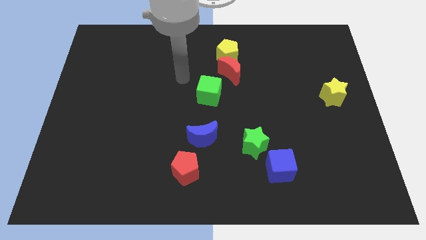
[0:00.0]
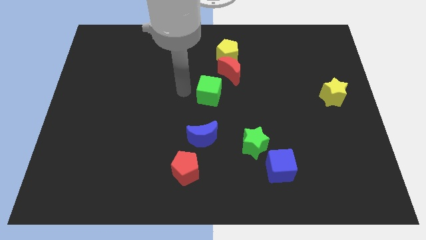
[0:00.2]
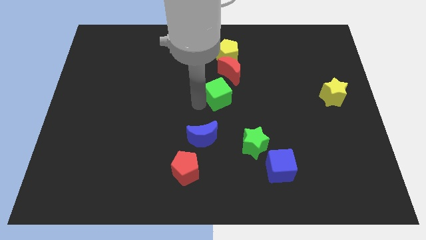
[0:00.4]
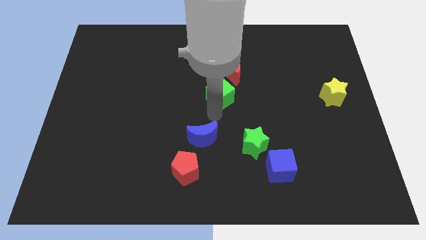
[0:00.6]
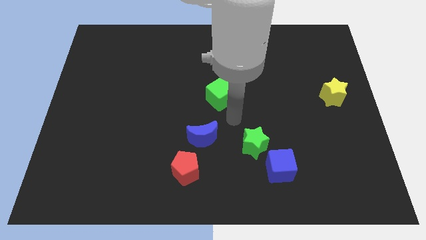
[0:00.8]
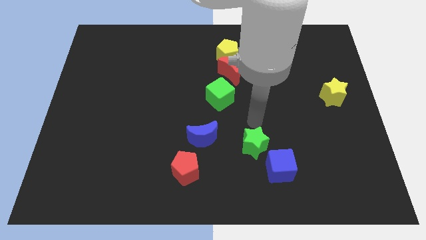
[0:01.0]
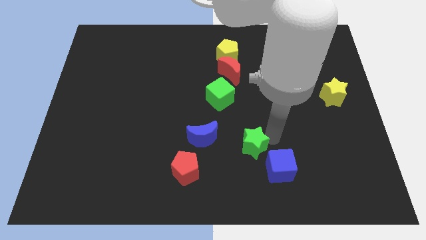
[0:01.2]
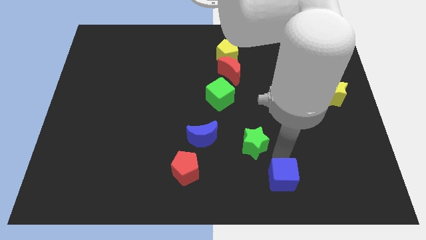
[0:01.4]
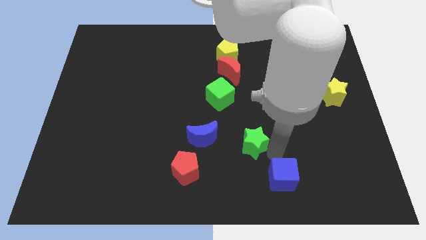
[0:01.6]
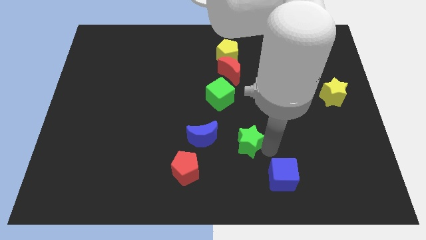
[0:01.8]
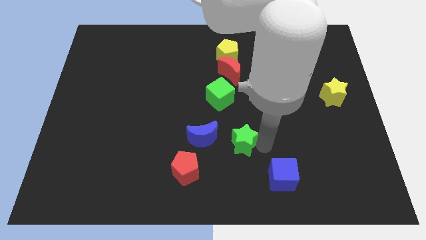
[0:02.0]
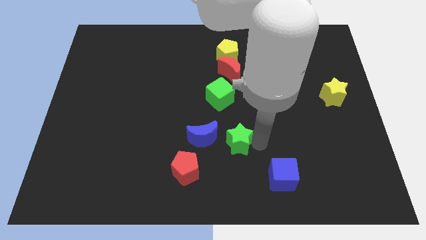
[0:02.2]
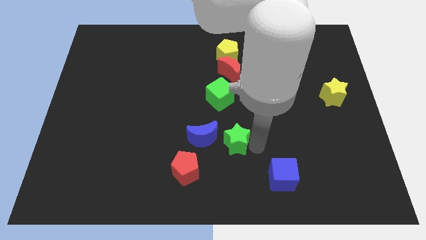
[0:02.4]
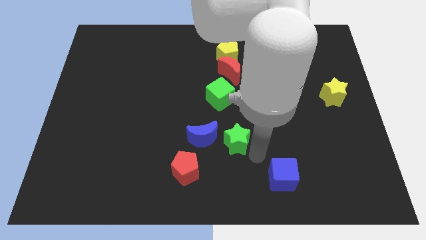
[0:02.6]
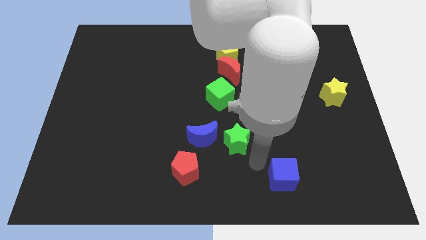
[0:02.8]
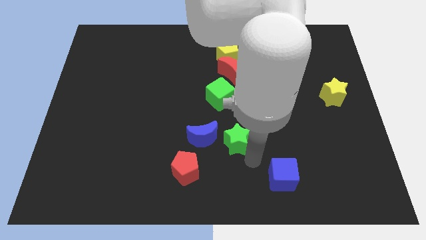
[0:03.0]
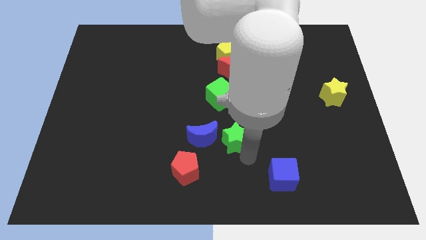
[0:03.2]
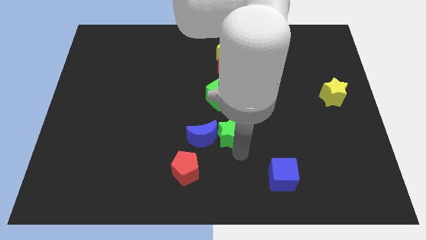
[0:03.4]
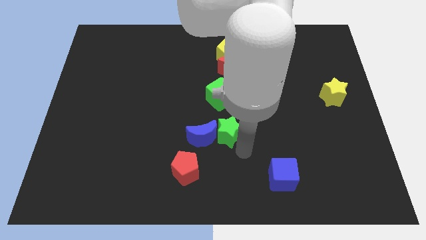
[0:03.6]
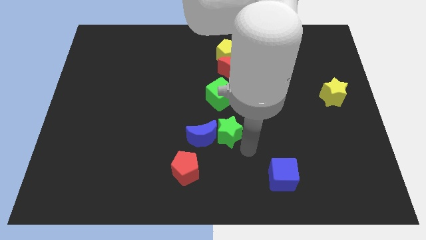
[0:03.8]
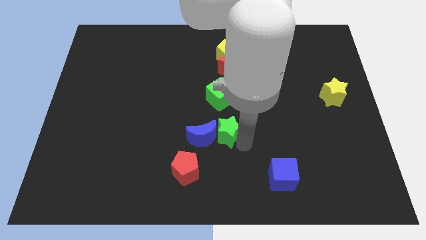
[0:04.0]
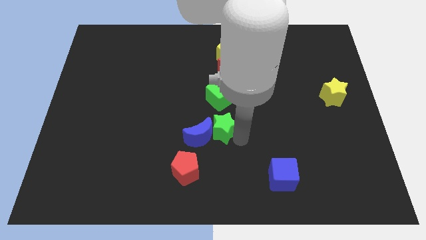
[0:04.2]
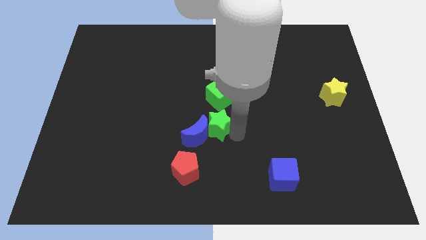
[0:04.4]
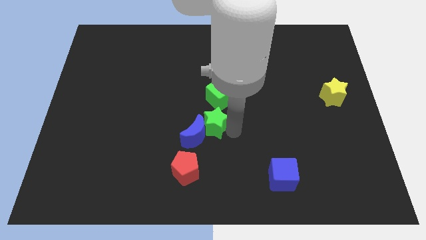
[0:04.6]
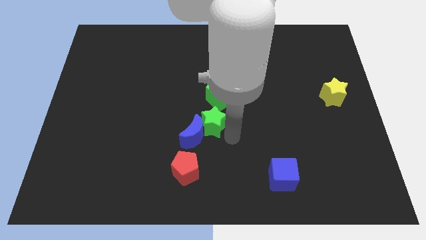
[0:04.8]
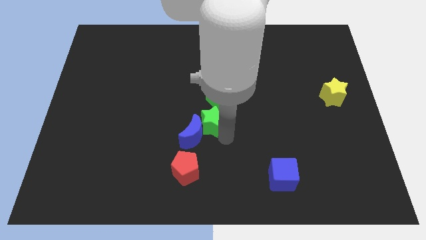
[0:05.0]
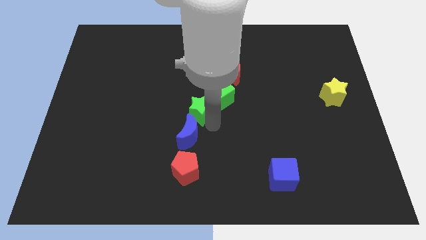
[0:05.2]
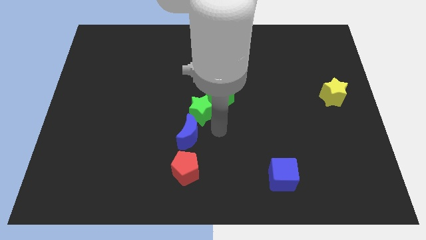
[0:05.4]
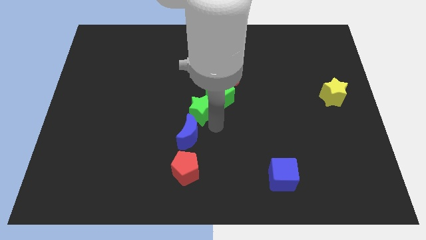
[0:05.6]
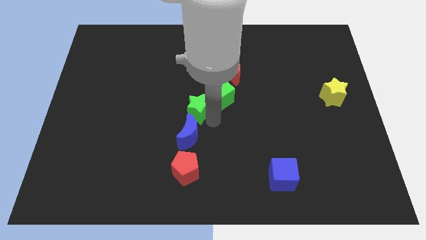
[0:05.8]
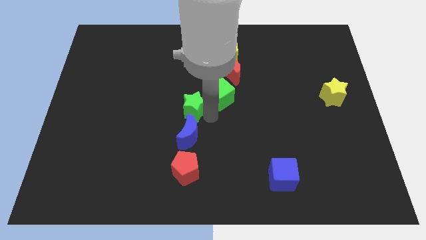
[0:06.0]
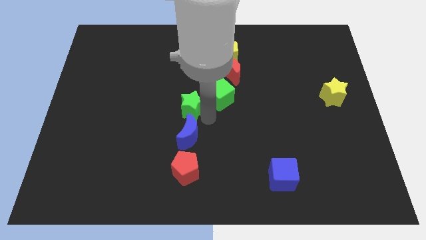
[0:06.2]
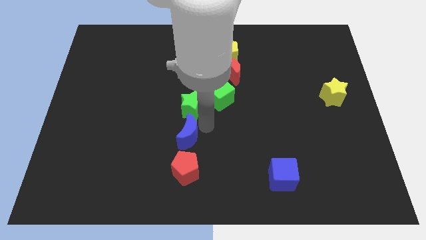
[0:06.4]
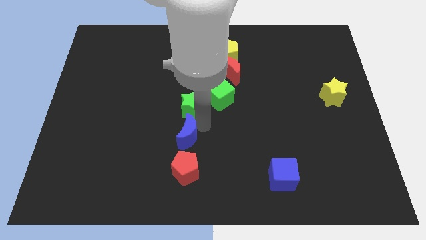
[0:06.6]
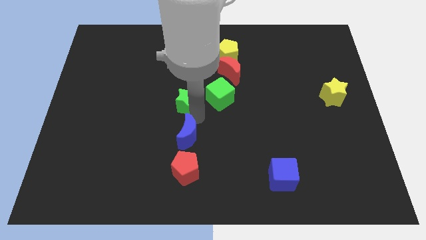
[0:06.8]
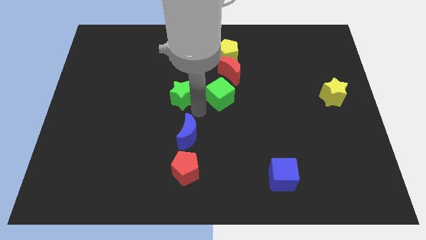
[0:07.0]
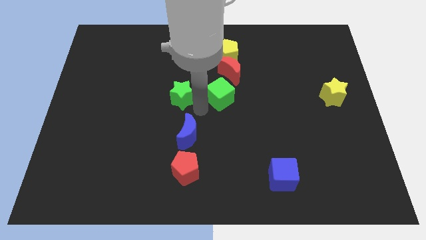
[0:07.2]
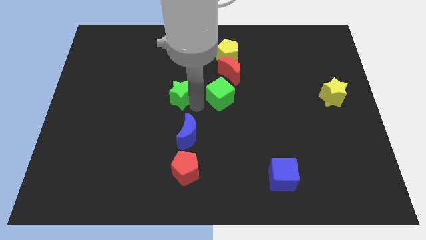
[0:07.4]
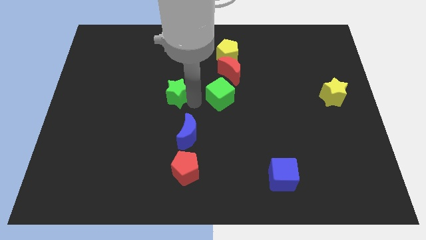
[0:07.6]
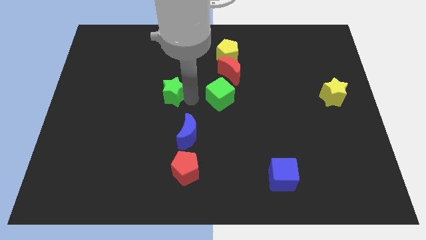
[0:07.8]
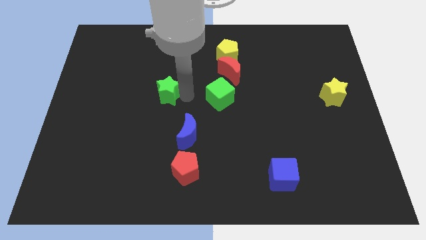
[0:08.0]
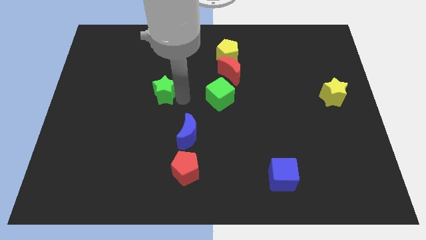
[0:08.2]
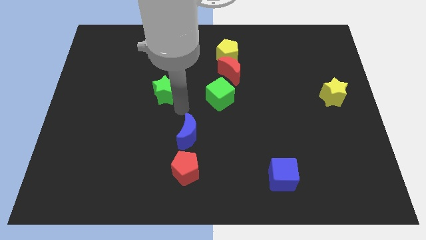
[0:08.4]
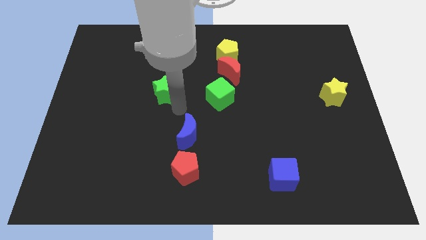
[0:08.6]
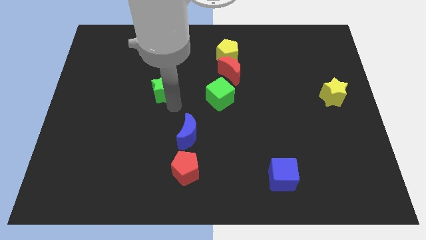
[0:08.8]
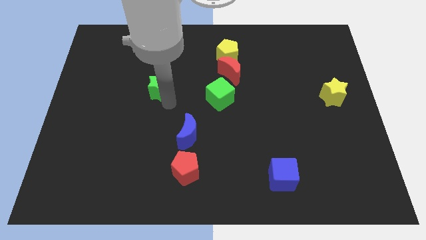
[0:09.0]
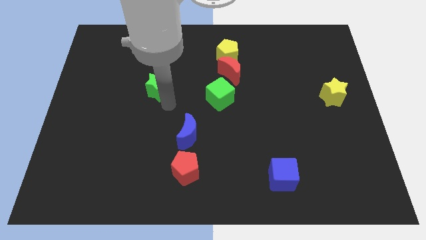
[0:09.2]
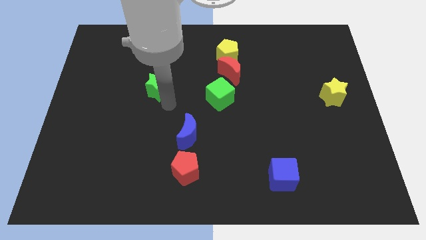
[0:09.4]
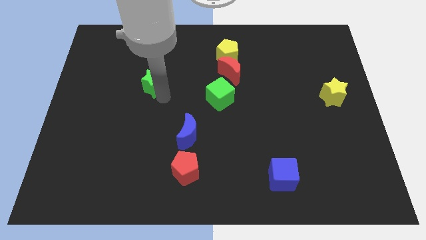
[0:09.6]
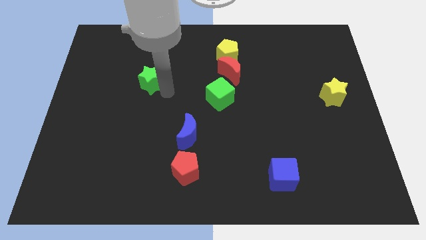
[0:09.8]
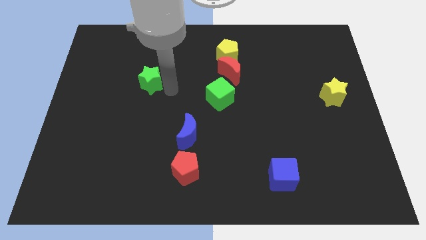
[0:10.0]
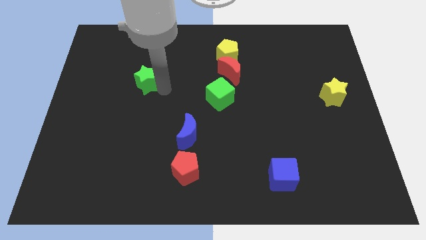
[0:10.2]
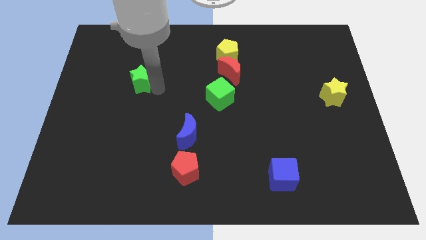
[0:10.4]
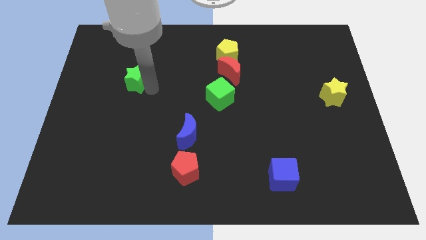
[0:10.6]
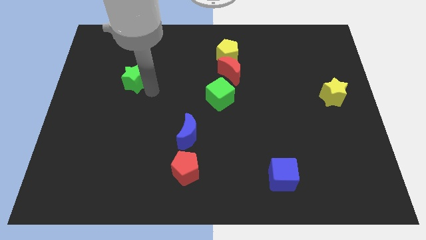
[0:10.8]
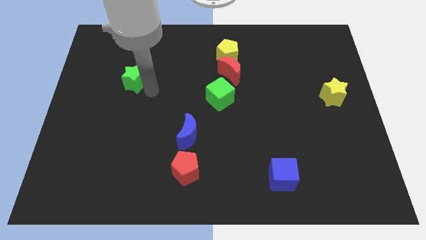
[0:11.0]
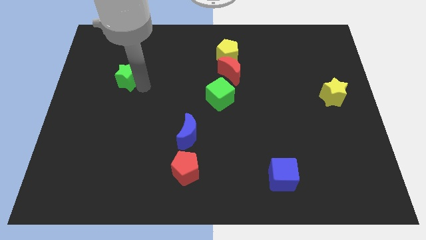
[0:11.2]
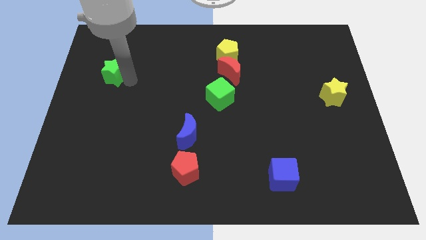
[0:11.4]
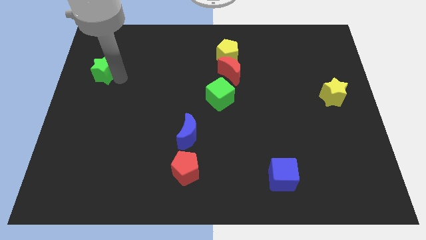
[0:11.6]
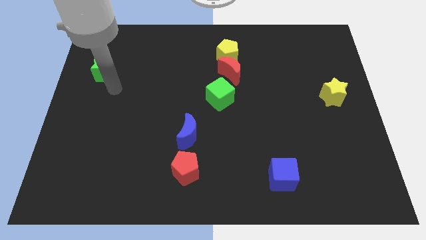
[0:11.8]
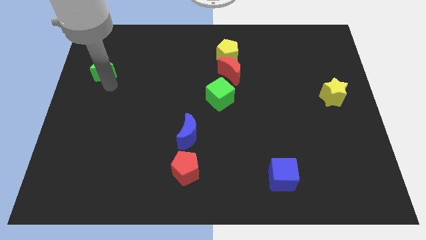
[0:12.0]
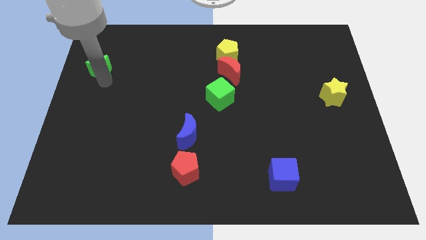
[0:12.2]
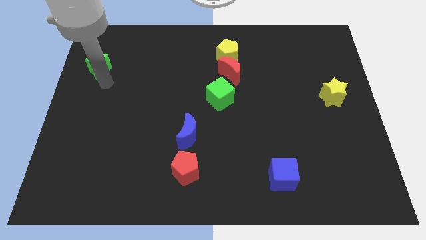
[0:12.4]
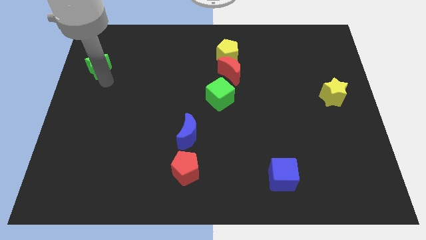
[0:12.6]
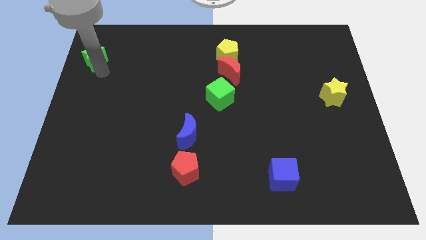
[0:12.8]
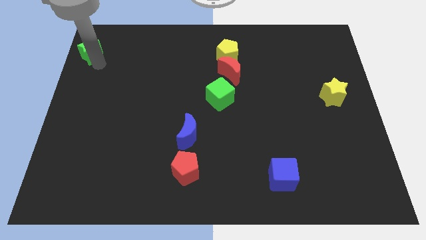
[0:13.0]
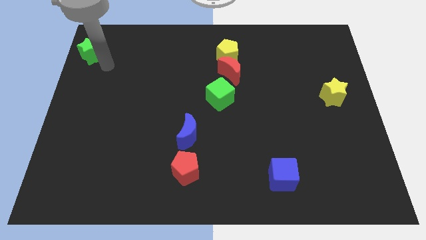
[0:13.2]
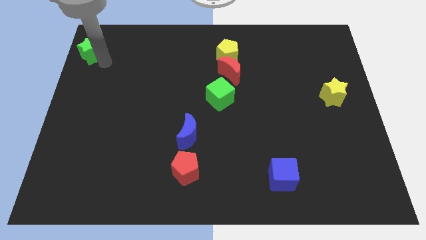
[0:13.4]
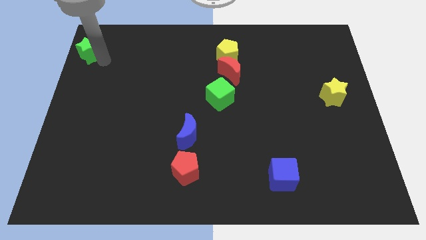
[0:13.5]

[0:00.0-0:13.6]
put the green star to the top left corner
